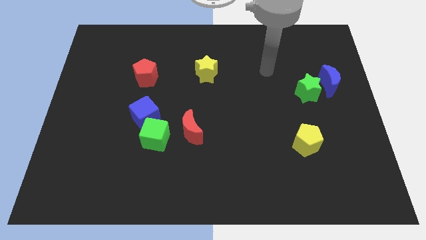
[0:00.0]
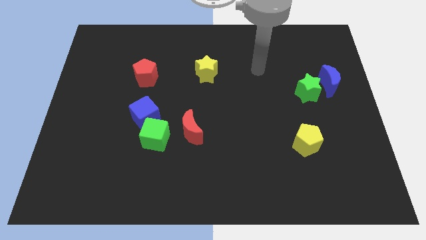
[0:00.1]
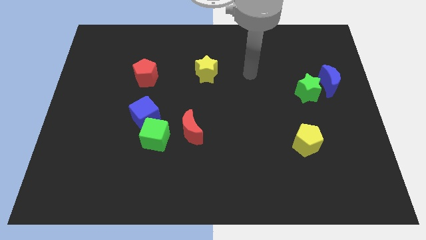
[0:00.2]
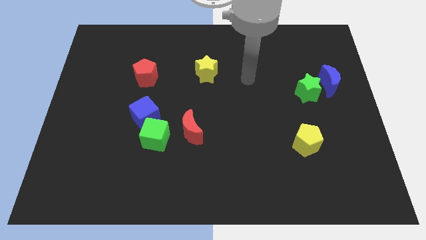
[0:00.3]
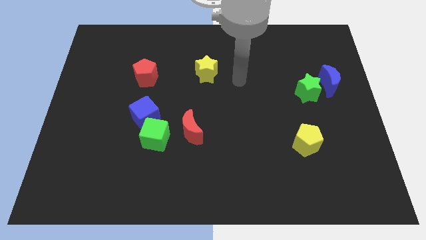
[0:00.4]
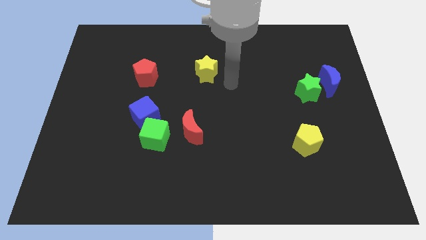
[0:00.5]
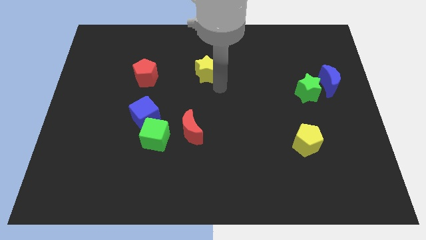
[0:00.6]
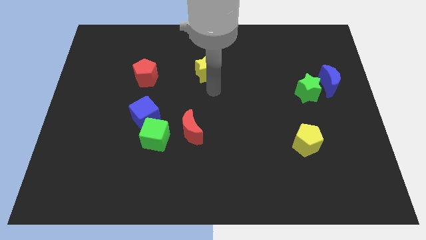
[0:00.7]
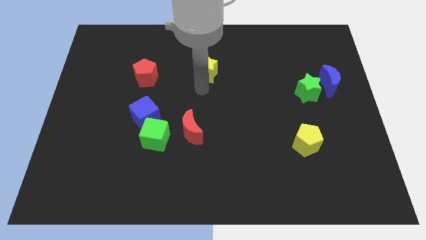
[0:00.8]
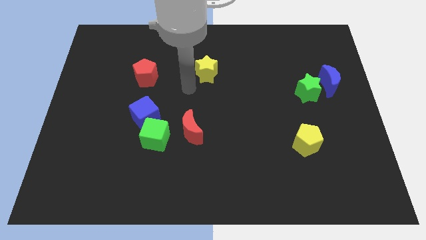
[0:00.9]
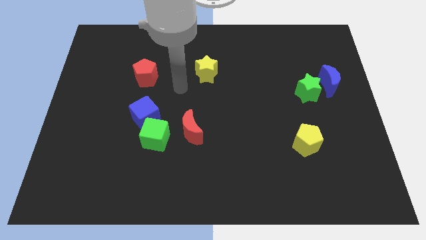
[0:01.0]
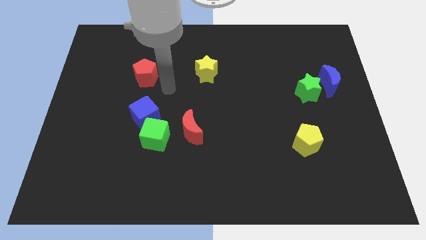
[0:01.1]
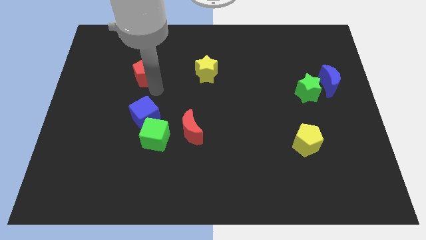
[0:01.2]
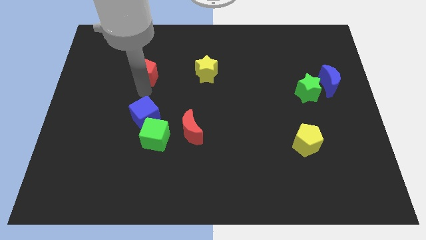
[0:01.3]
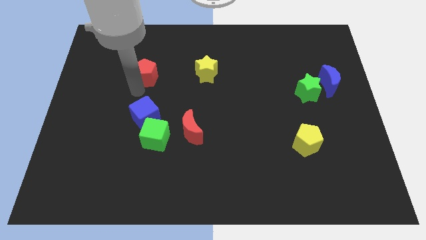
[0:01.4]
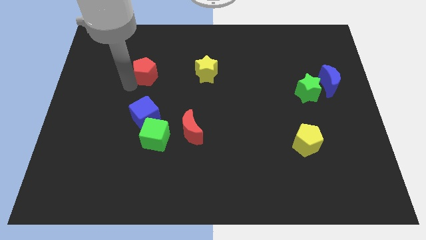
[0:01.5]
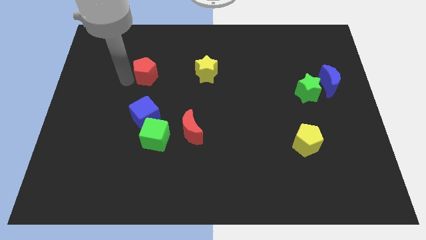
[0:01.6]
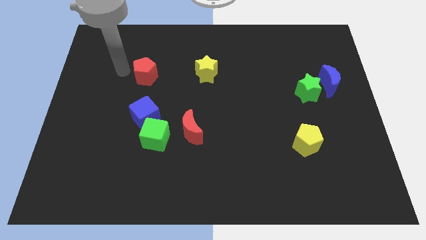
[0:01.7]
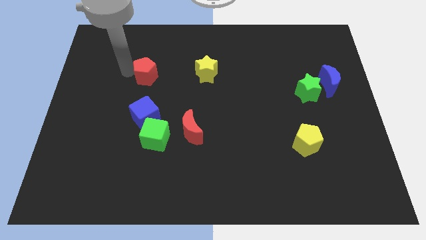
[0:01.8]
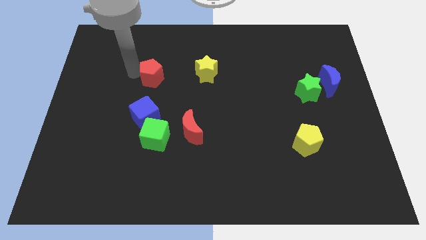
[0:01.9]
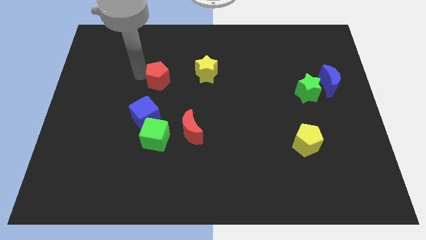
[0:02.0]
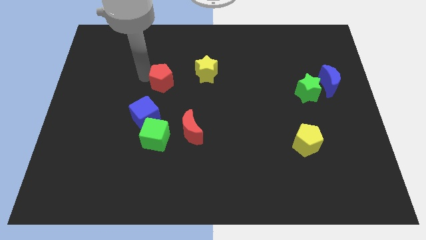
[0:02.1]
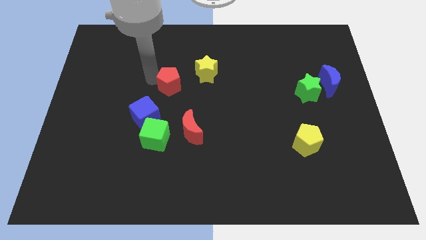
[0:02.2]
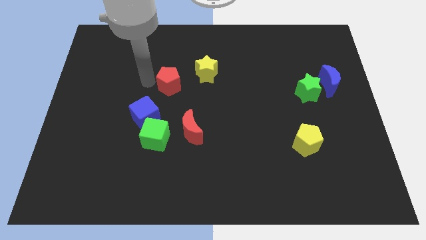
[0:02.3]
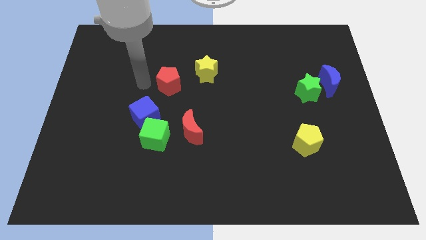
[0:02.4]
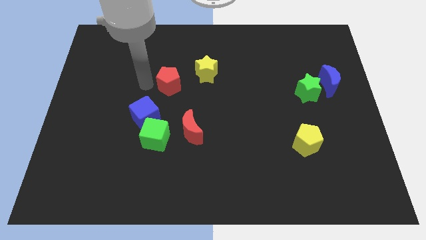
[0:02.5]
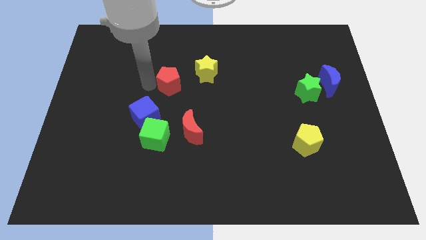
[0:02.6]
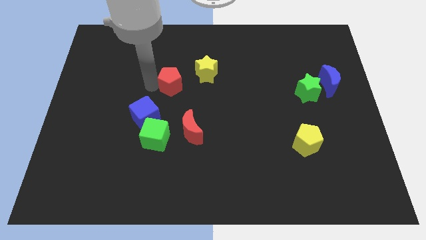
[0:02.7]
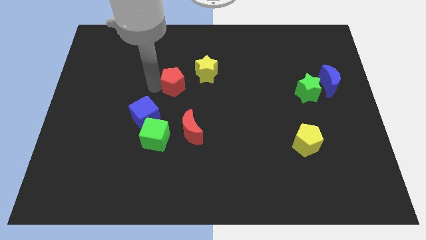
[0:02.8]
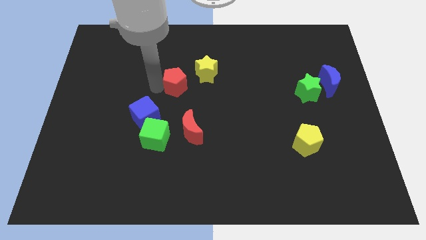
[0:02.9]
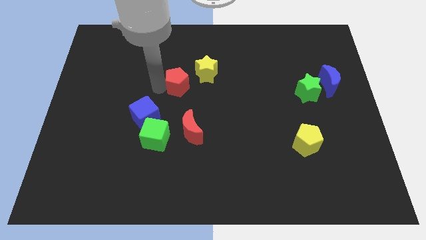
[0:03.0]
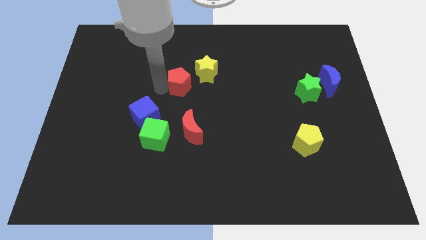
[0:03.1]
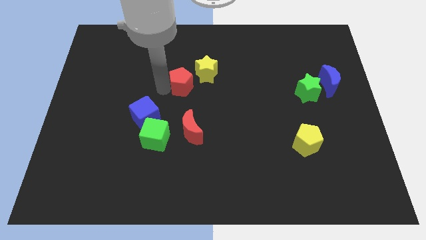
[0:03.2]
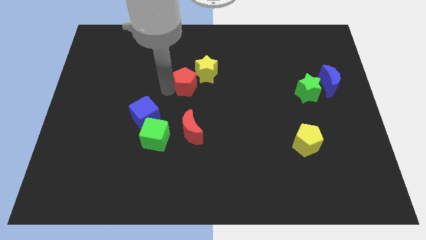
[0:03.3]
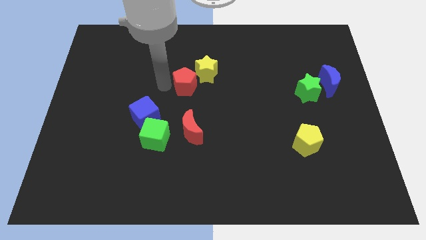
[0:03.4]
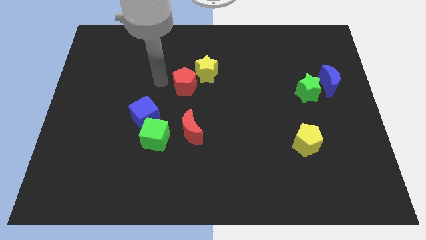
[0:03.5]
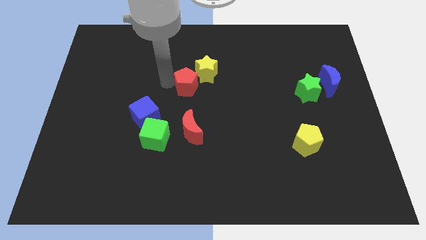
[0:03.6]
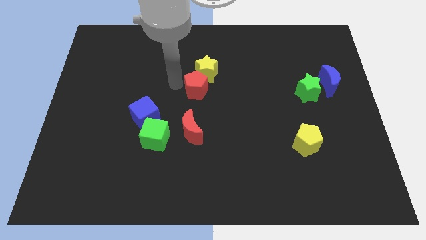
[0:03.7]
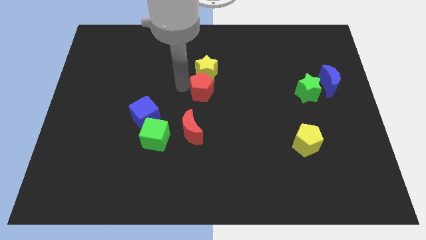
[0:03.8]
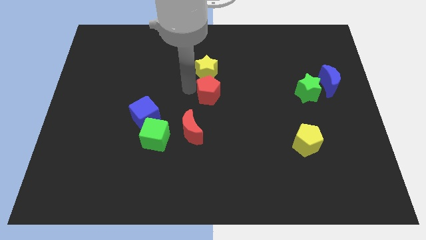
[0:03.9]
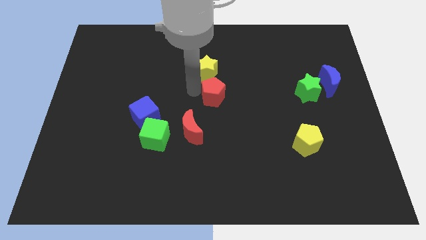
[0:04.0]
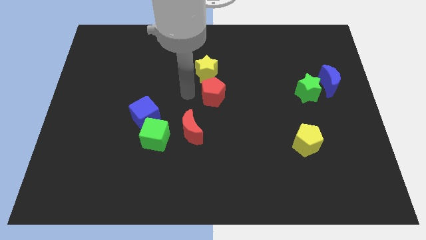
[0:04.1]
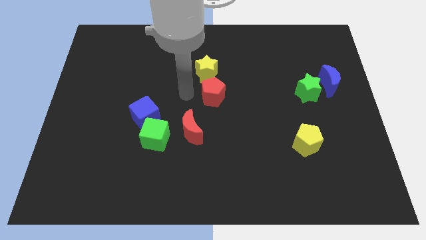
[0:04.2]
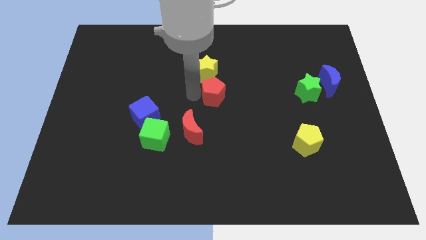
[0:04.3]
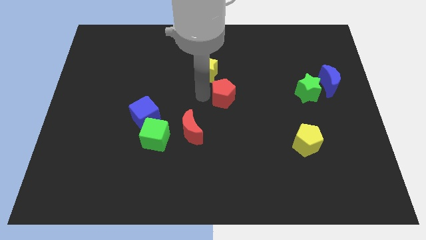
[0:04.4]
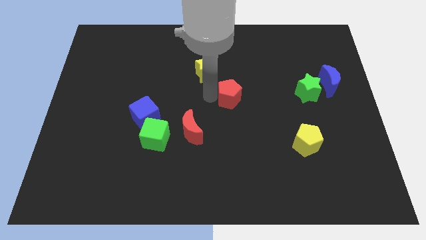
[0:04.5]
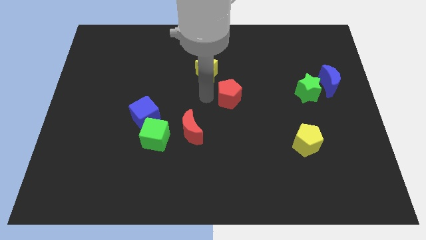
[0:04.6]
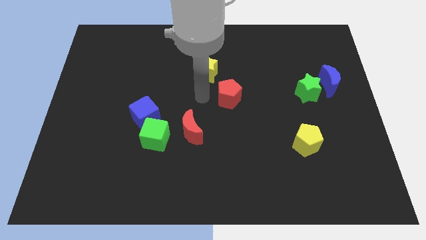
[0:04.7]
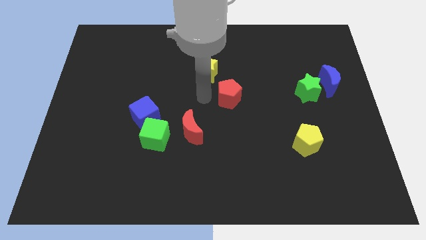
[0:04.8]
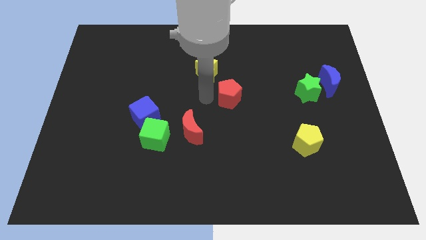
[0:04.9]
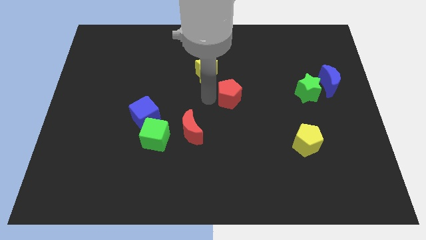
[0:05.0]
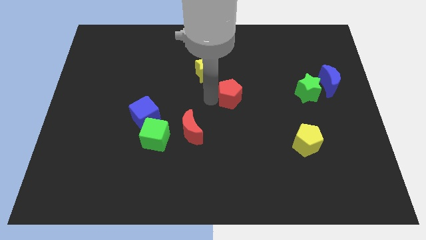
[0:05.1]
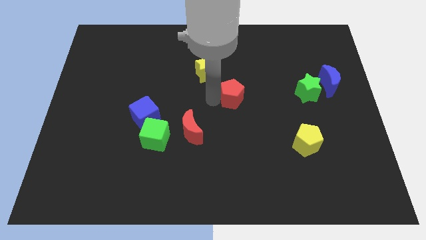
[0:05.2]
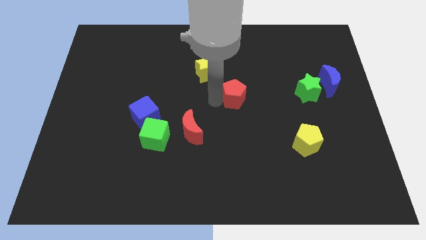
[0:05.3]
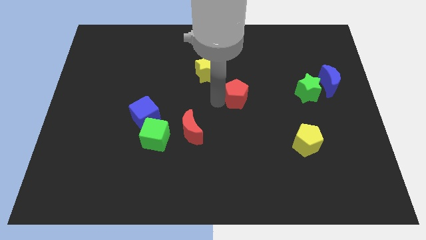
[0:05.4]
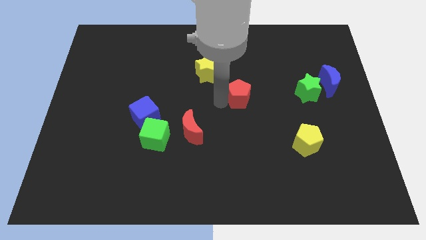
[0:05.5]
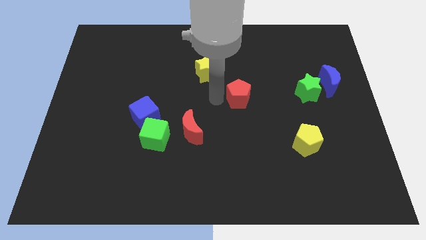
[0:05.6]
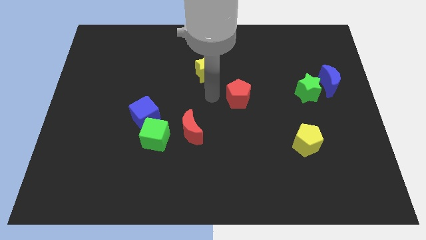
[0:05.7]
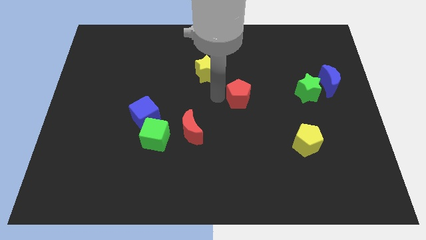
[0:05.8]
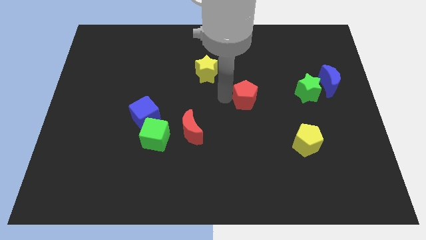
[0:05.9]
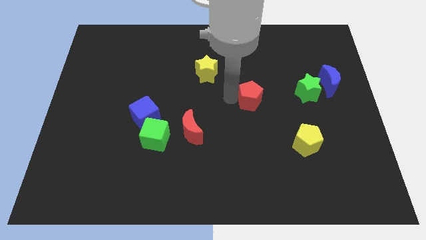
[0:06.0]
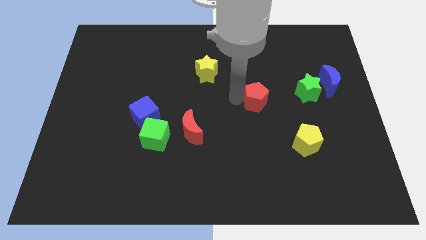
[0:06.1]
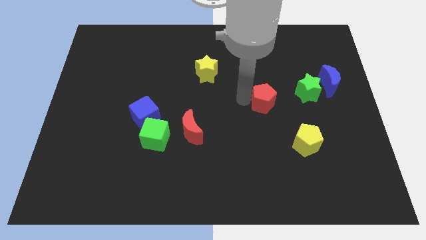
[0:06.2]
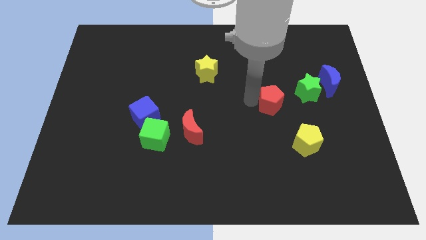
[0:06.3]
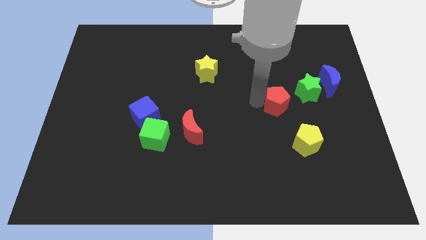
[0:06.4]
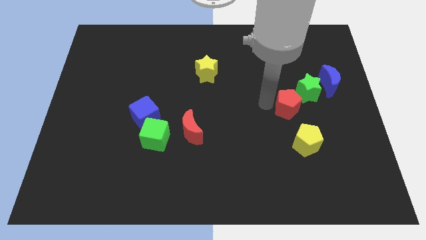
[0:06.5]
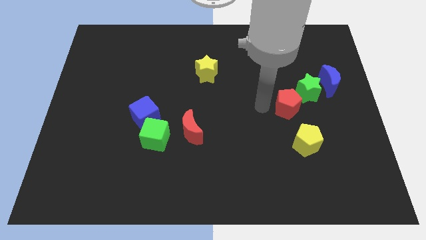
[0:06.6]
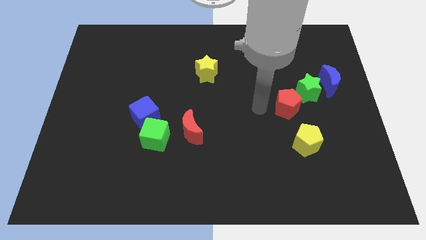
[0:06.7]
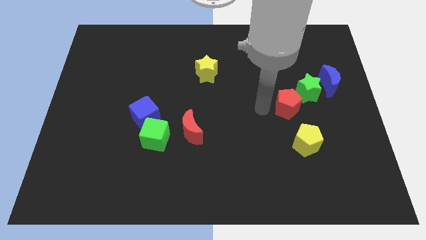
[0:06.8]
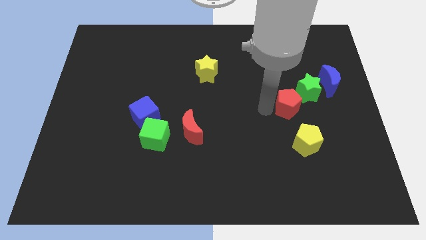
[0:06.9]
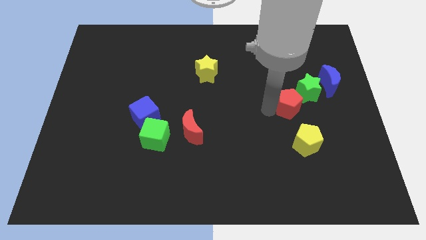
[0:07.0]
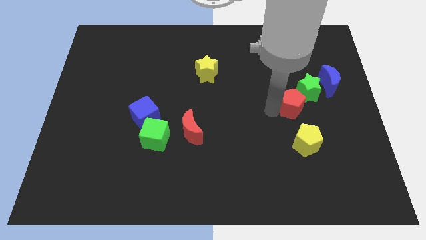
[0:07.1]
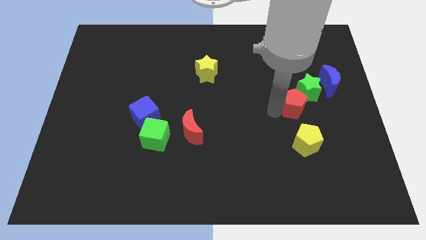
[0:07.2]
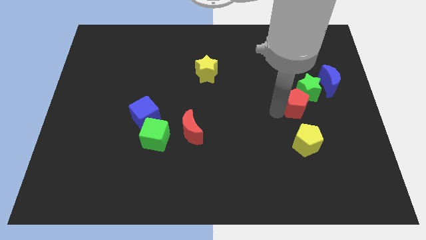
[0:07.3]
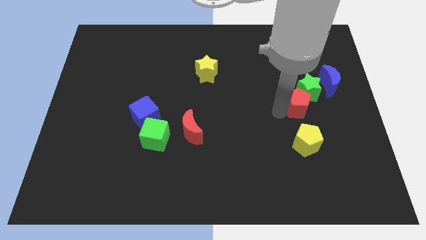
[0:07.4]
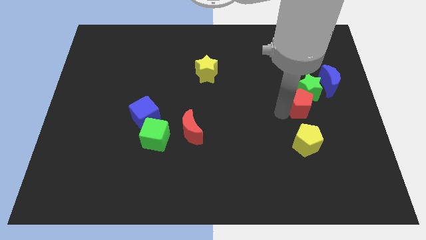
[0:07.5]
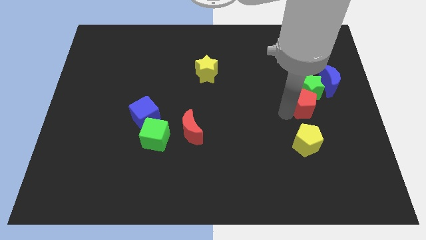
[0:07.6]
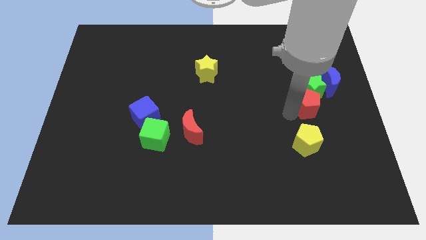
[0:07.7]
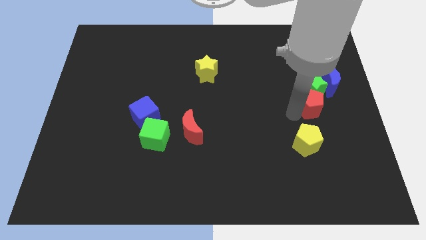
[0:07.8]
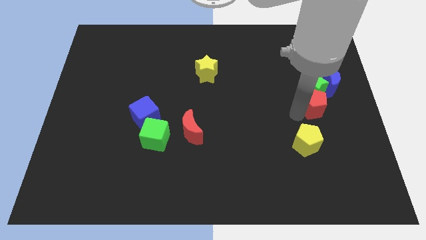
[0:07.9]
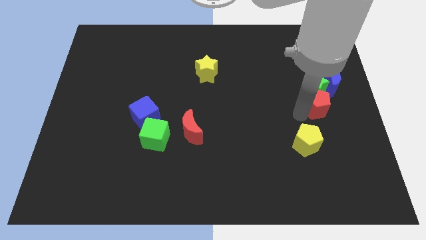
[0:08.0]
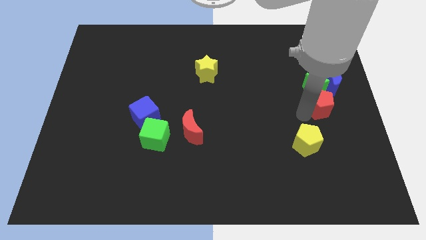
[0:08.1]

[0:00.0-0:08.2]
push the red pentagon to the right side of the board
